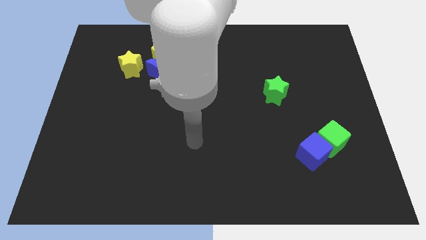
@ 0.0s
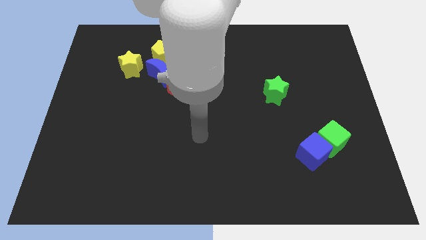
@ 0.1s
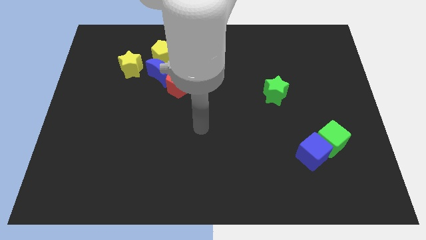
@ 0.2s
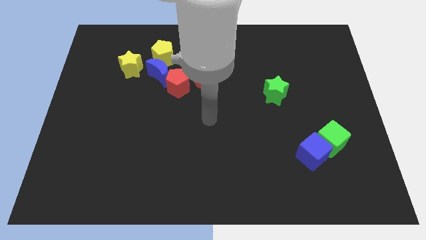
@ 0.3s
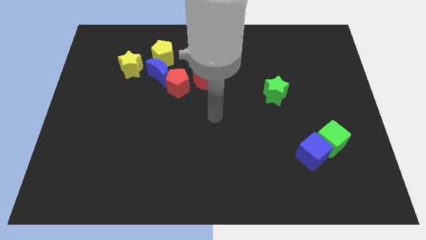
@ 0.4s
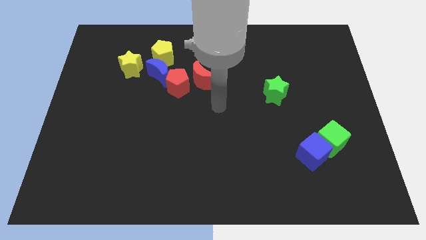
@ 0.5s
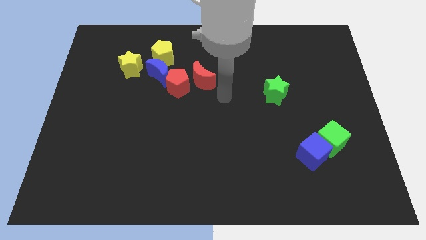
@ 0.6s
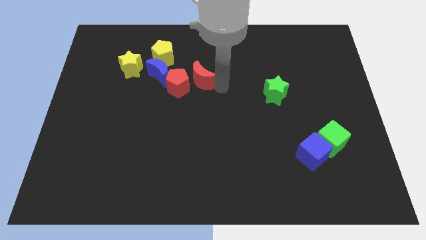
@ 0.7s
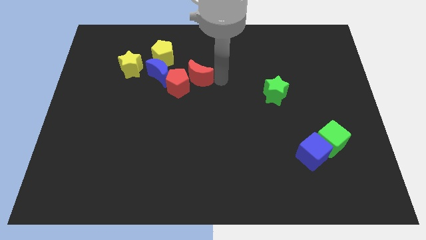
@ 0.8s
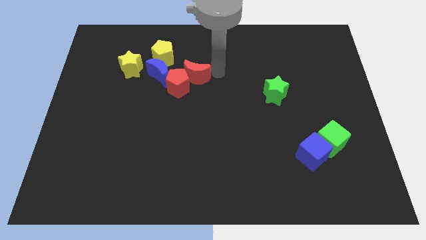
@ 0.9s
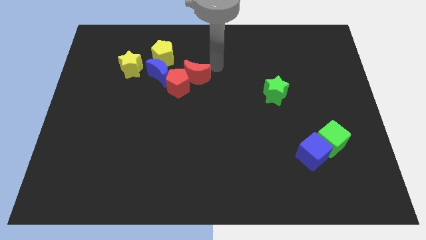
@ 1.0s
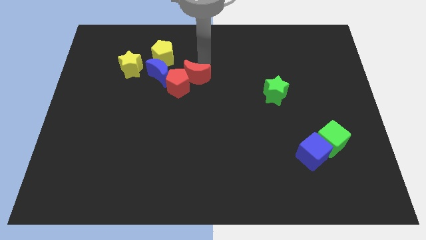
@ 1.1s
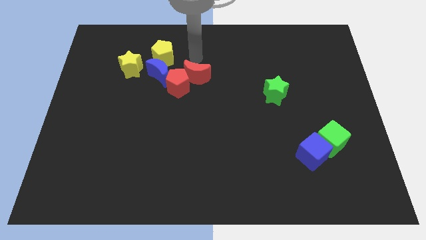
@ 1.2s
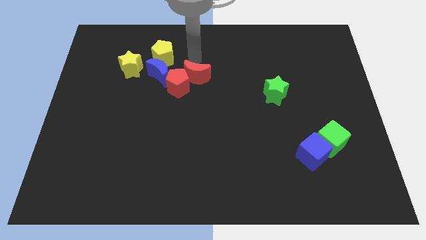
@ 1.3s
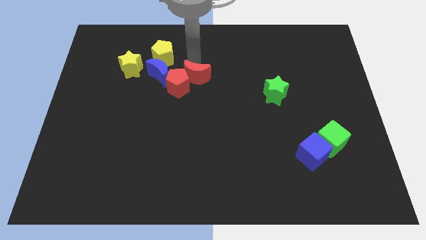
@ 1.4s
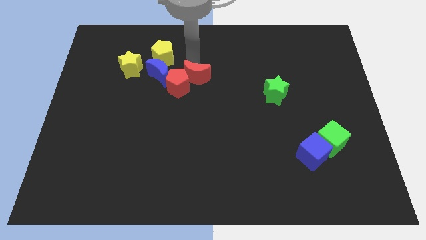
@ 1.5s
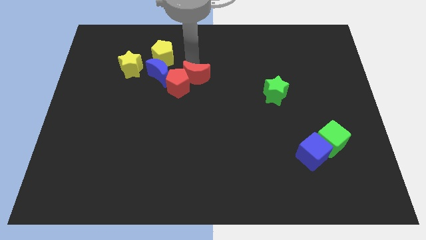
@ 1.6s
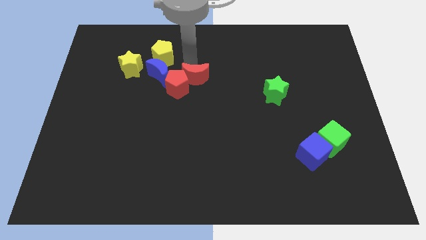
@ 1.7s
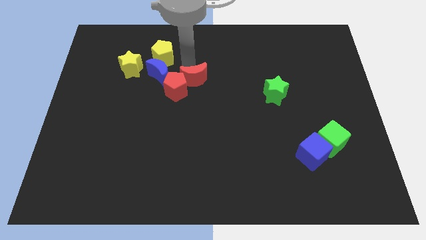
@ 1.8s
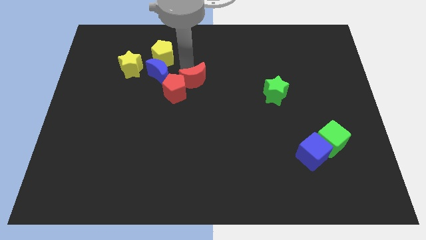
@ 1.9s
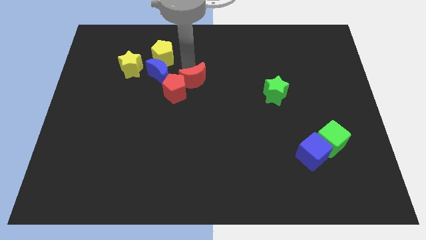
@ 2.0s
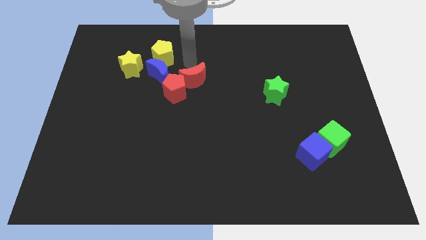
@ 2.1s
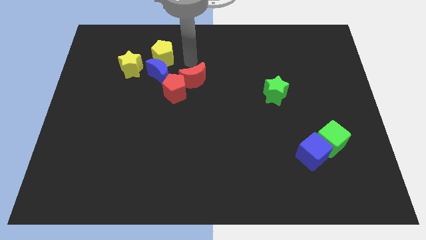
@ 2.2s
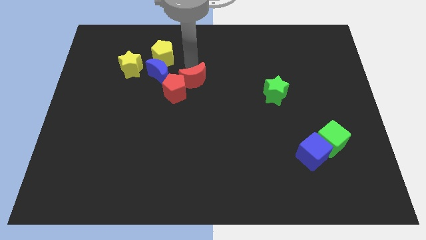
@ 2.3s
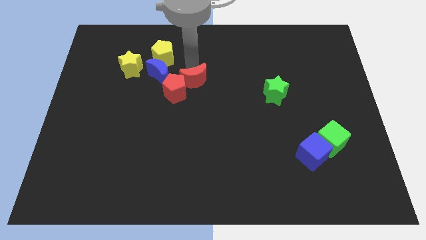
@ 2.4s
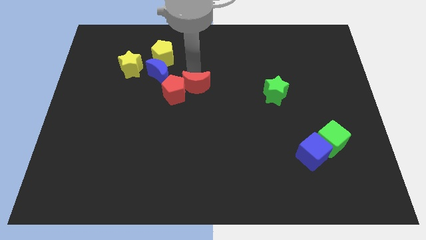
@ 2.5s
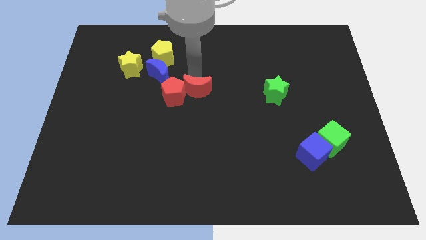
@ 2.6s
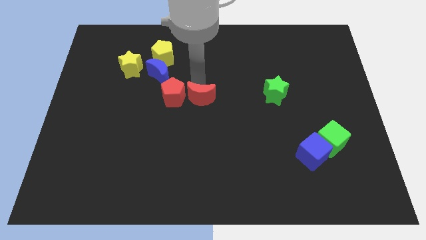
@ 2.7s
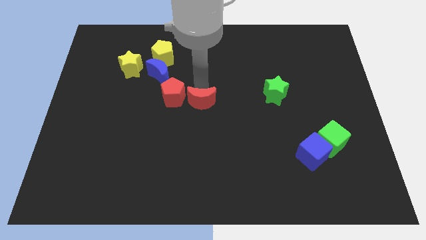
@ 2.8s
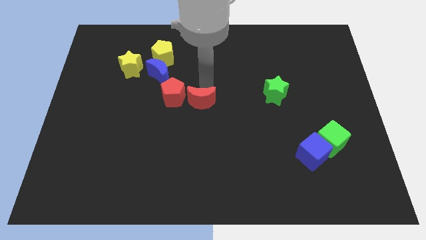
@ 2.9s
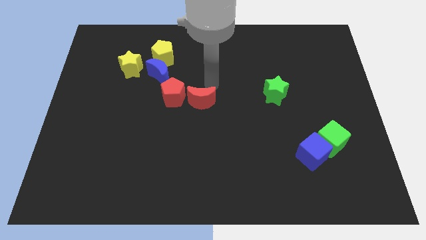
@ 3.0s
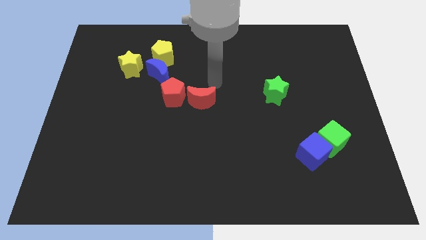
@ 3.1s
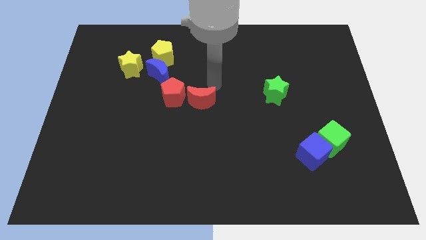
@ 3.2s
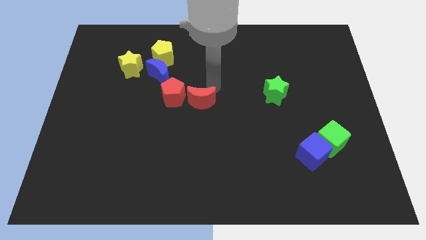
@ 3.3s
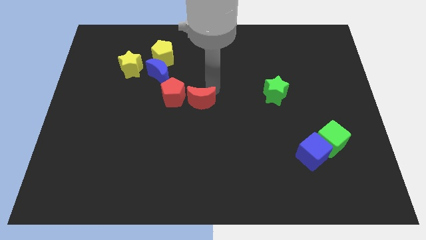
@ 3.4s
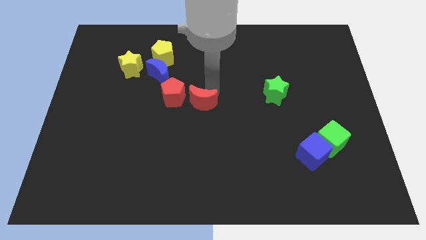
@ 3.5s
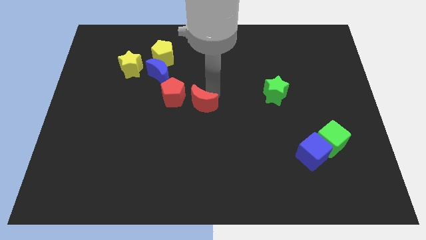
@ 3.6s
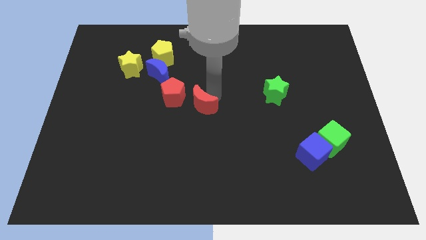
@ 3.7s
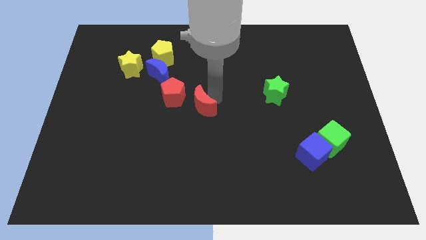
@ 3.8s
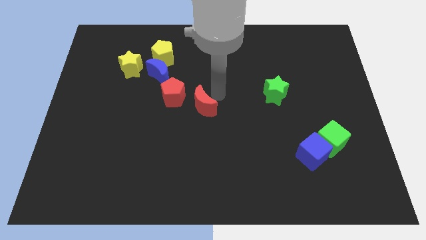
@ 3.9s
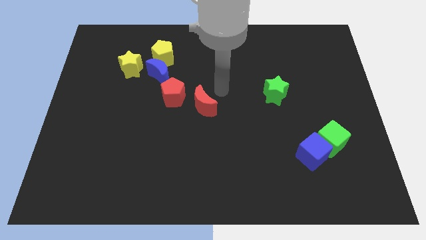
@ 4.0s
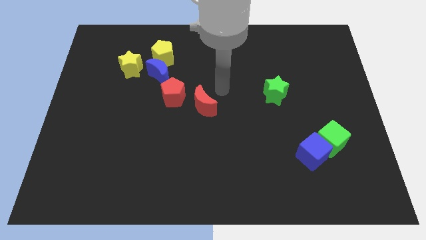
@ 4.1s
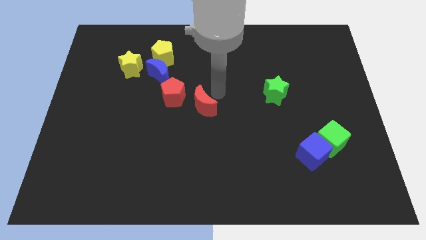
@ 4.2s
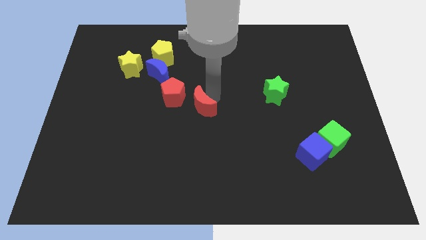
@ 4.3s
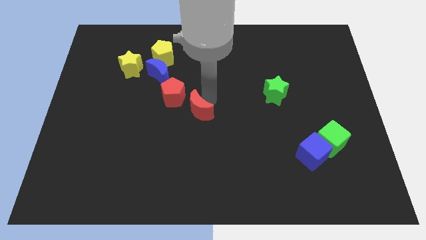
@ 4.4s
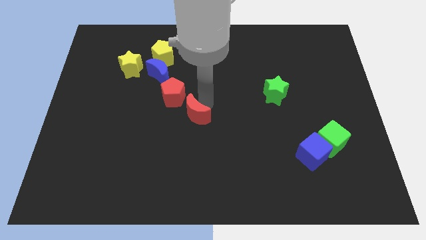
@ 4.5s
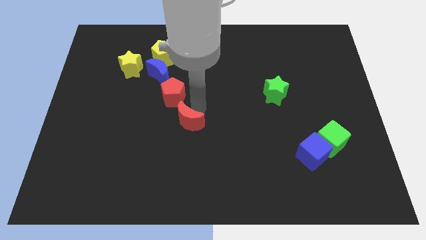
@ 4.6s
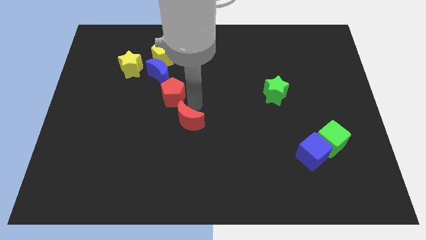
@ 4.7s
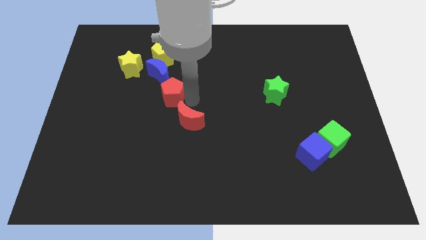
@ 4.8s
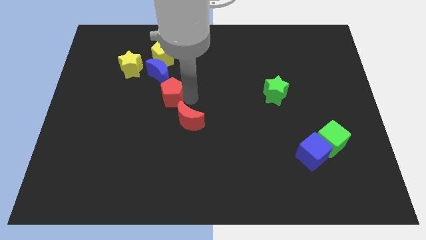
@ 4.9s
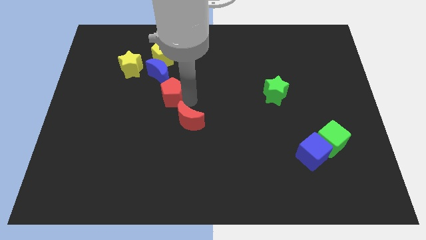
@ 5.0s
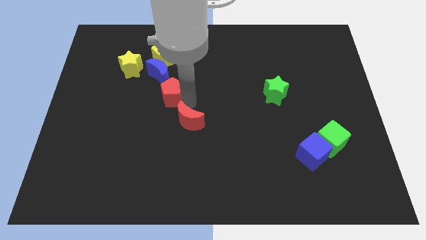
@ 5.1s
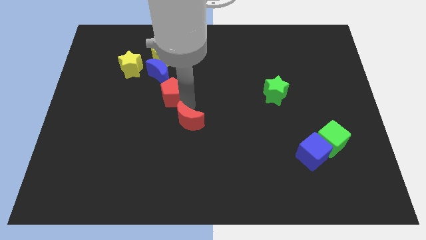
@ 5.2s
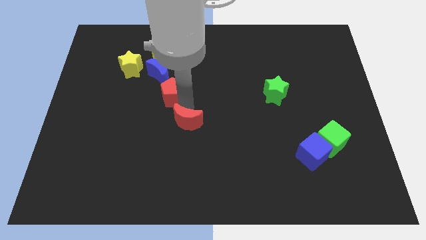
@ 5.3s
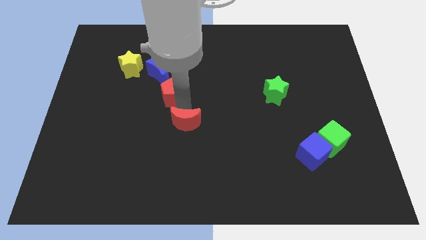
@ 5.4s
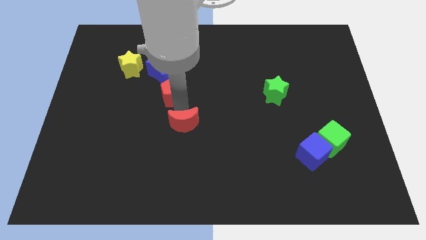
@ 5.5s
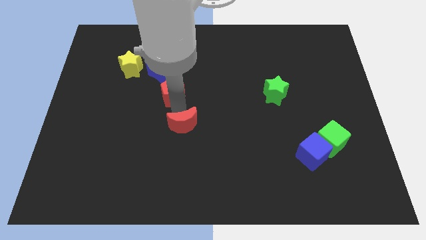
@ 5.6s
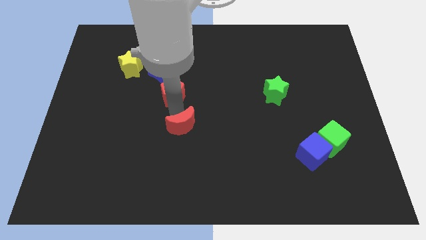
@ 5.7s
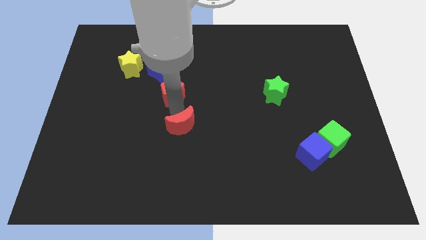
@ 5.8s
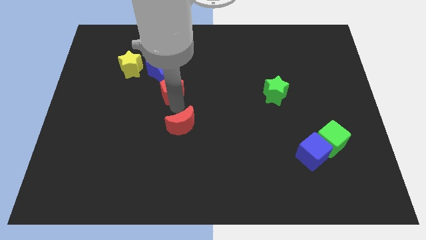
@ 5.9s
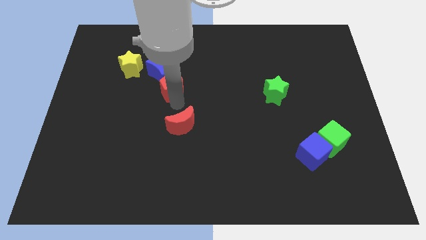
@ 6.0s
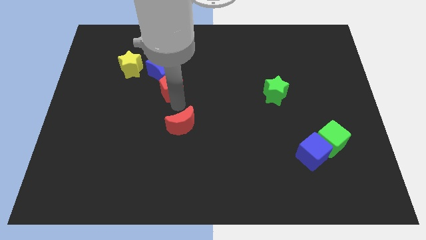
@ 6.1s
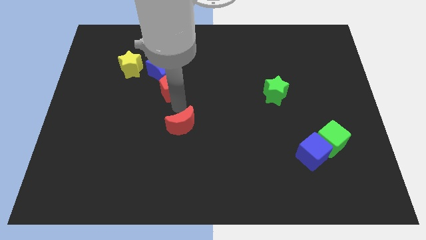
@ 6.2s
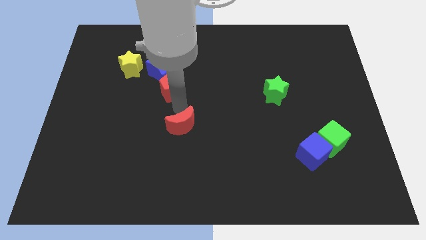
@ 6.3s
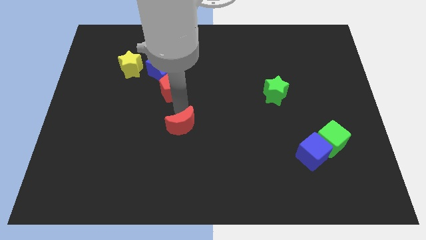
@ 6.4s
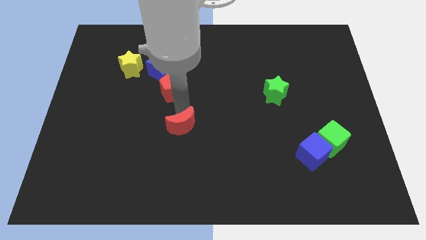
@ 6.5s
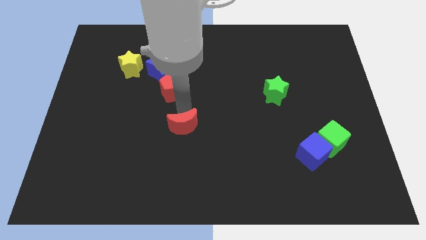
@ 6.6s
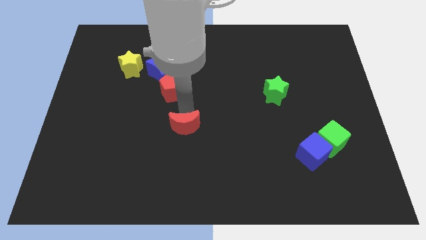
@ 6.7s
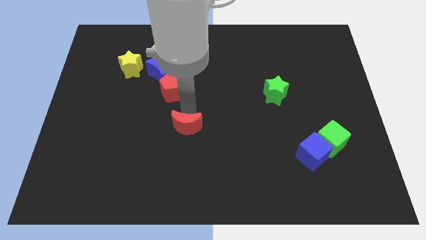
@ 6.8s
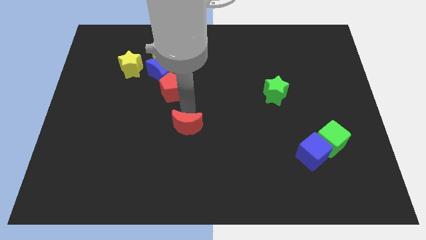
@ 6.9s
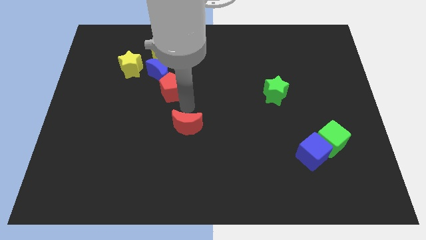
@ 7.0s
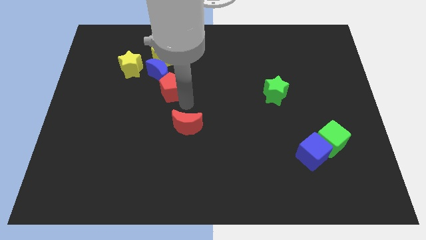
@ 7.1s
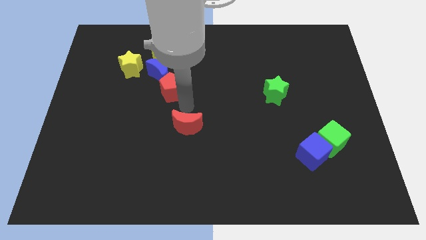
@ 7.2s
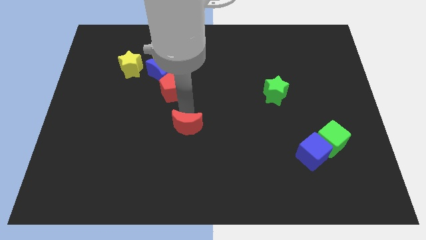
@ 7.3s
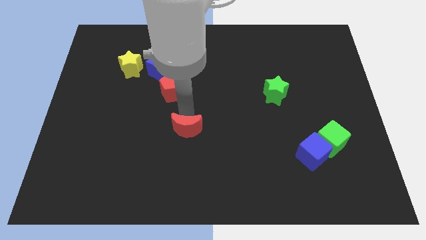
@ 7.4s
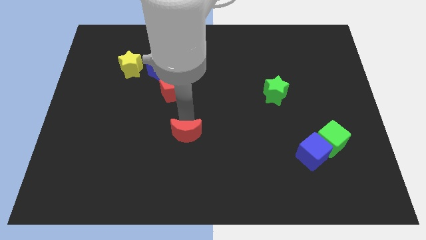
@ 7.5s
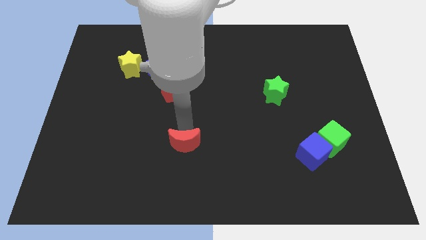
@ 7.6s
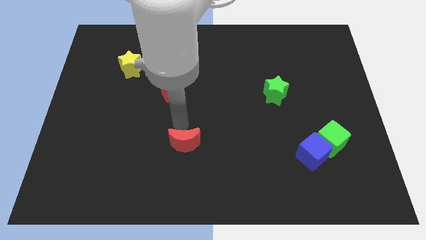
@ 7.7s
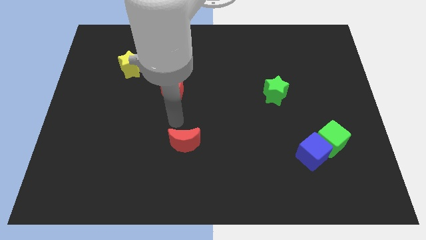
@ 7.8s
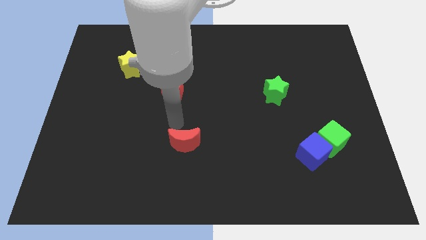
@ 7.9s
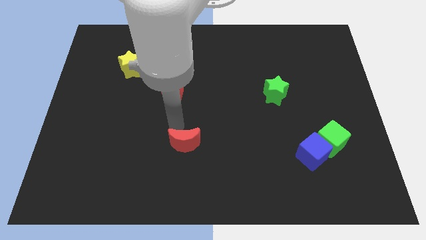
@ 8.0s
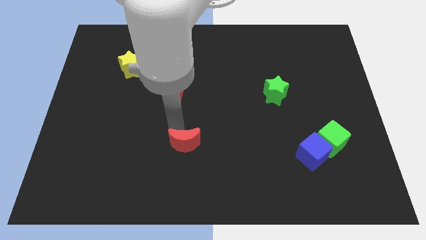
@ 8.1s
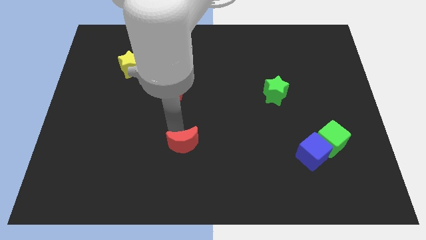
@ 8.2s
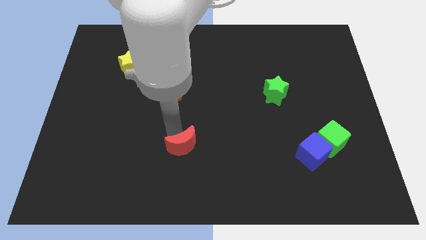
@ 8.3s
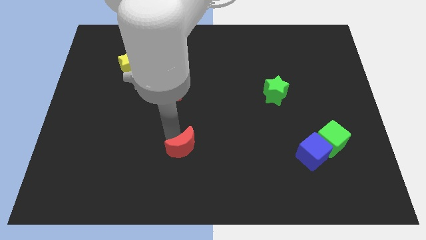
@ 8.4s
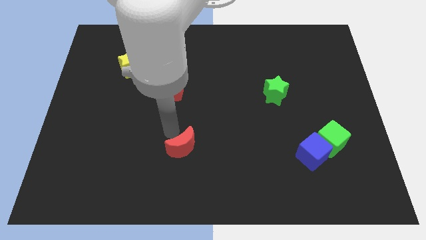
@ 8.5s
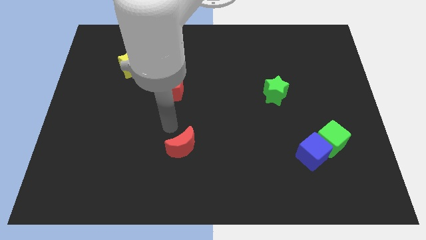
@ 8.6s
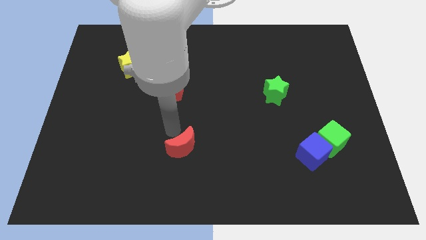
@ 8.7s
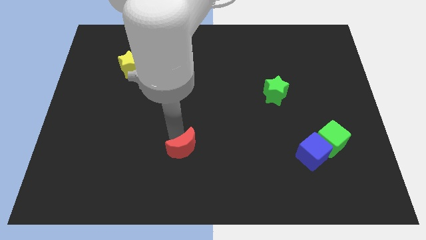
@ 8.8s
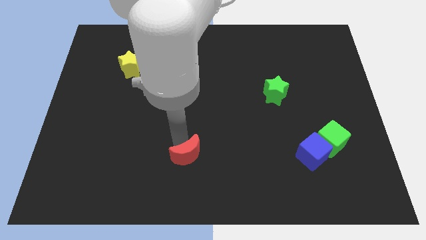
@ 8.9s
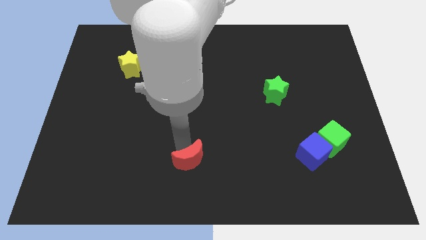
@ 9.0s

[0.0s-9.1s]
push the red moon to the bottom
